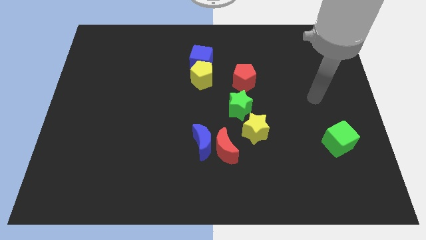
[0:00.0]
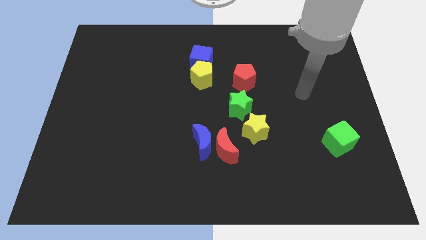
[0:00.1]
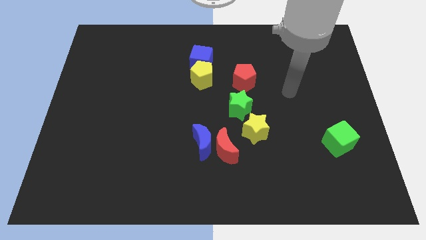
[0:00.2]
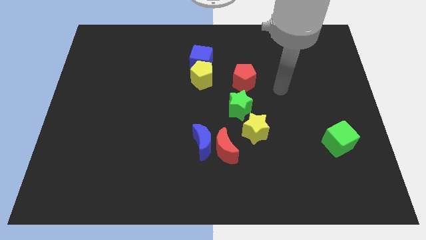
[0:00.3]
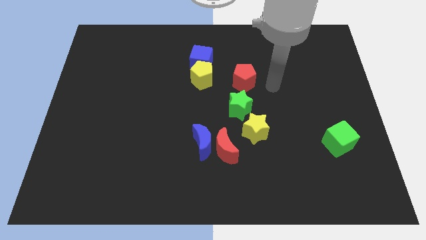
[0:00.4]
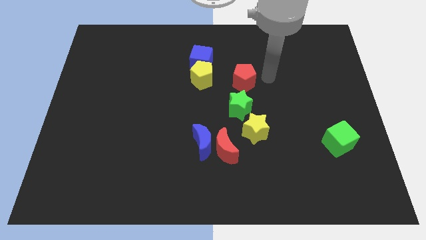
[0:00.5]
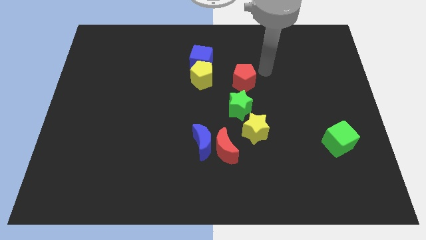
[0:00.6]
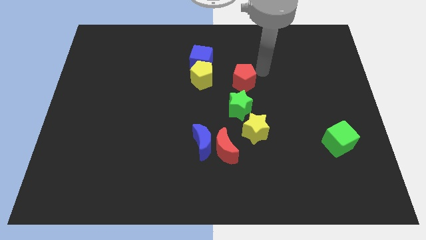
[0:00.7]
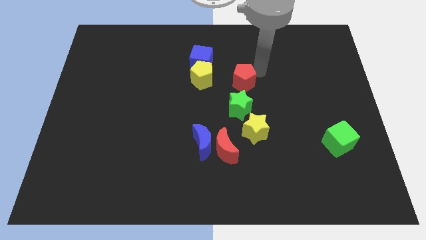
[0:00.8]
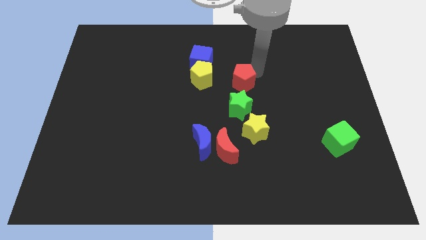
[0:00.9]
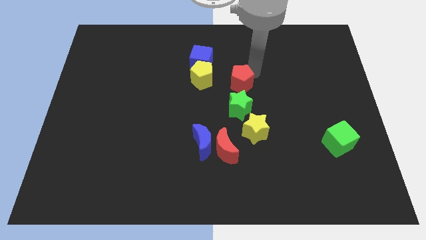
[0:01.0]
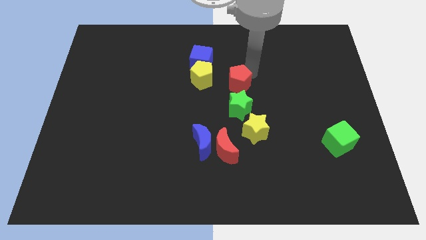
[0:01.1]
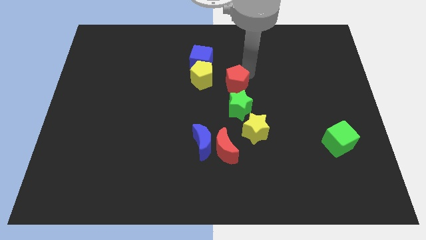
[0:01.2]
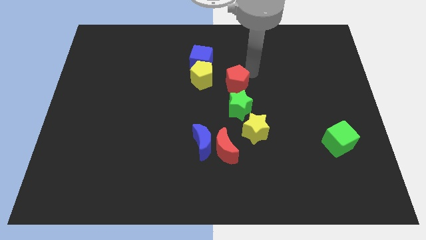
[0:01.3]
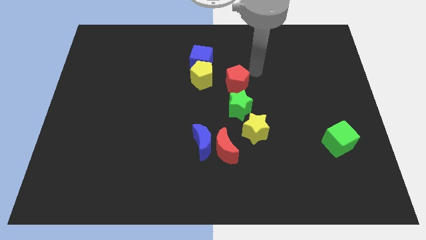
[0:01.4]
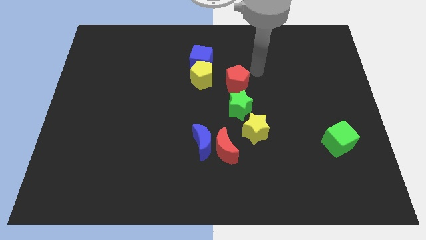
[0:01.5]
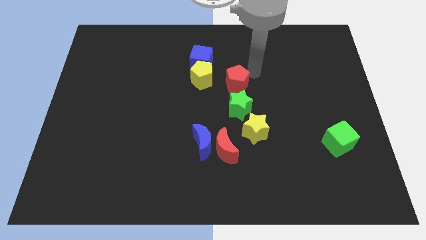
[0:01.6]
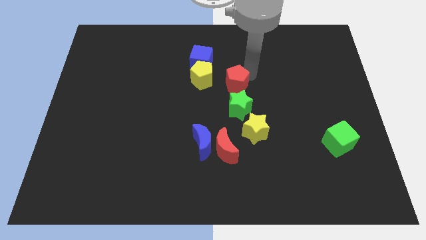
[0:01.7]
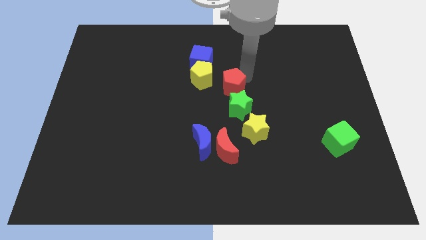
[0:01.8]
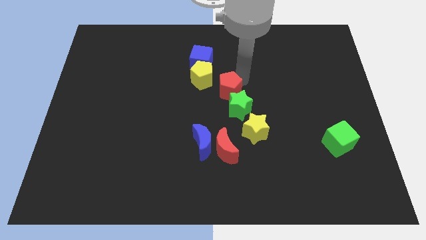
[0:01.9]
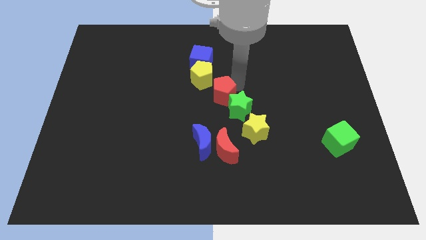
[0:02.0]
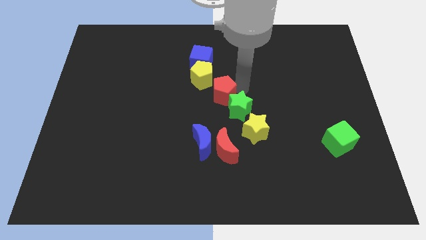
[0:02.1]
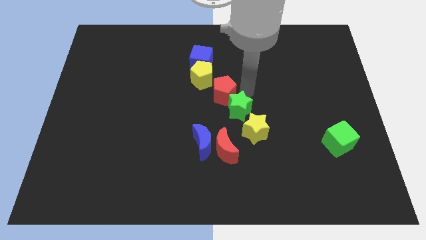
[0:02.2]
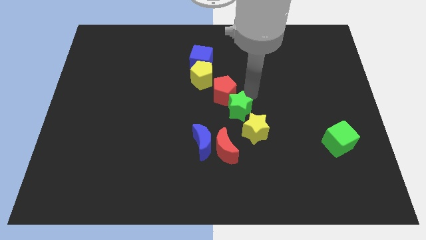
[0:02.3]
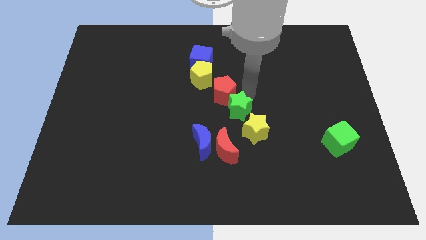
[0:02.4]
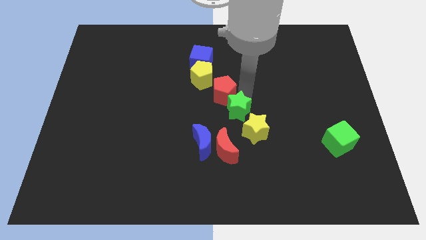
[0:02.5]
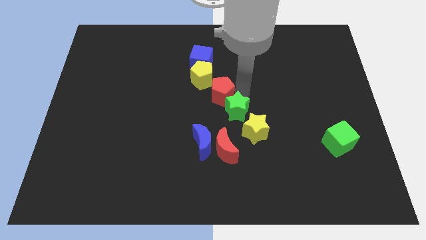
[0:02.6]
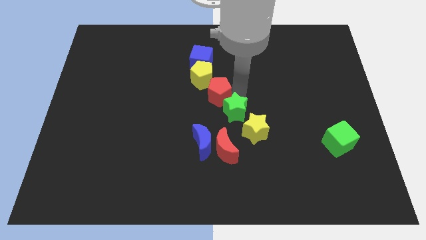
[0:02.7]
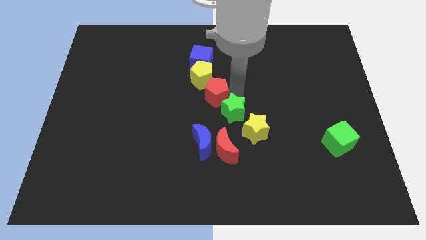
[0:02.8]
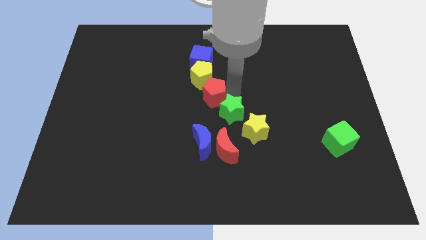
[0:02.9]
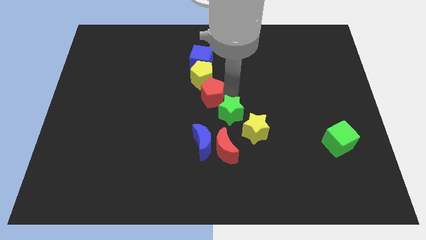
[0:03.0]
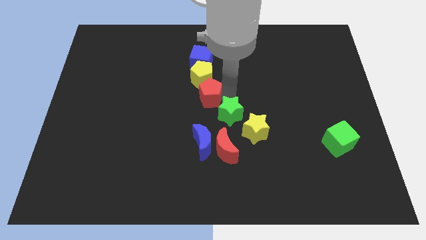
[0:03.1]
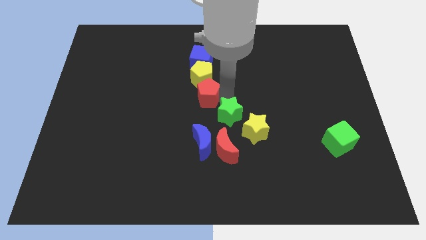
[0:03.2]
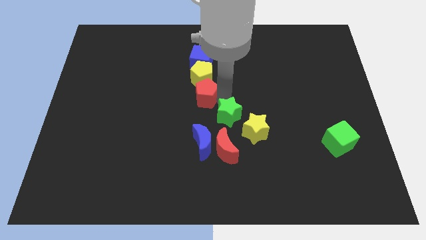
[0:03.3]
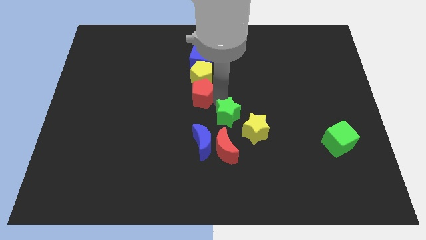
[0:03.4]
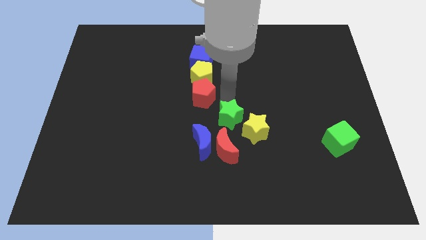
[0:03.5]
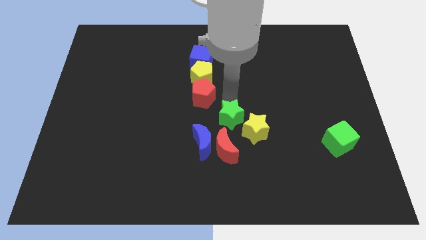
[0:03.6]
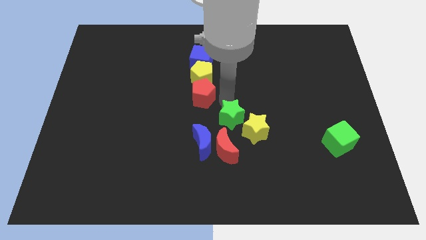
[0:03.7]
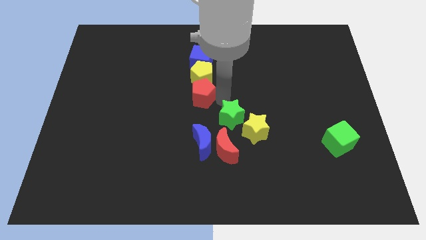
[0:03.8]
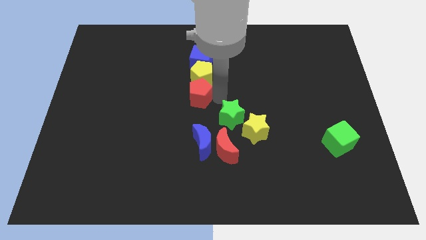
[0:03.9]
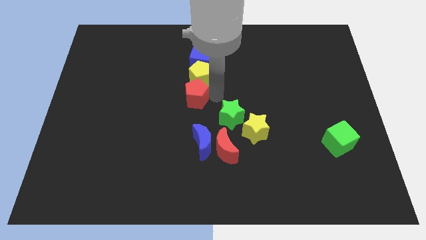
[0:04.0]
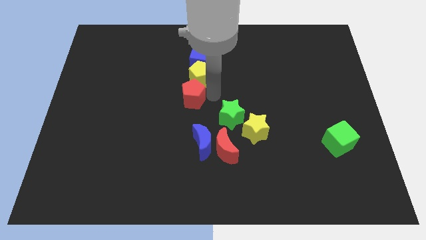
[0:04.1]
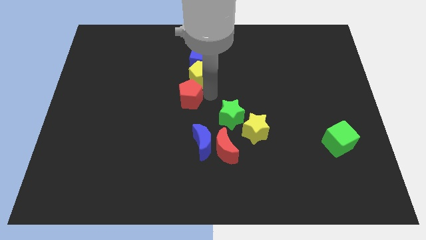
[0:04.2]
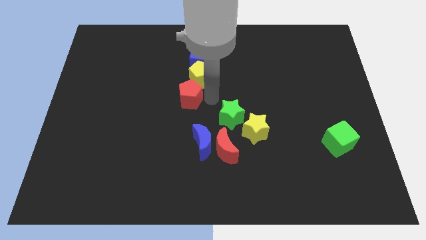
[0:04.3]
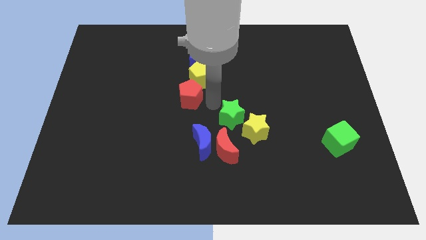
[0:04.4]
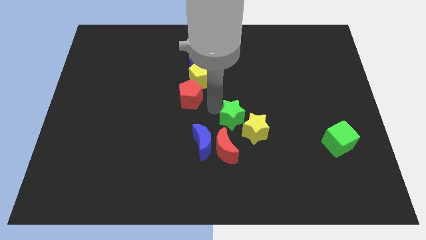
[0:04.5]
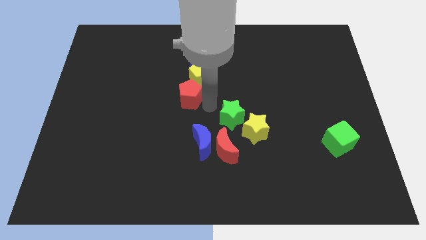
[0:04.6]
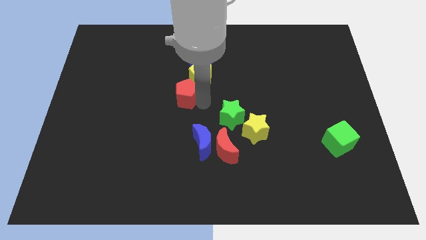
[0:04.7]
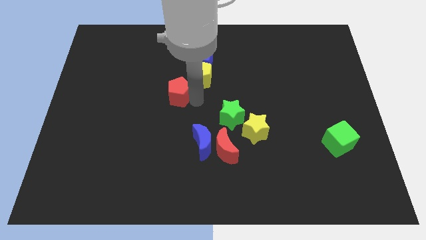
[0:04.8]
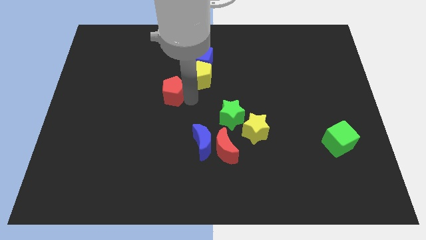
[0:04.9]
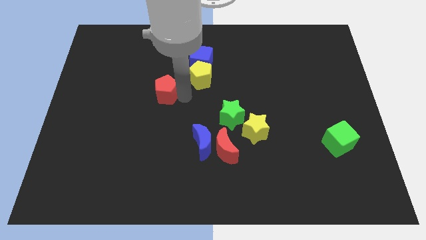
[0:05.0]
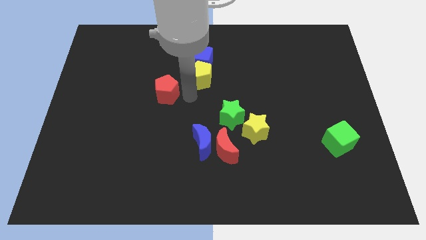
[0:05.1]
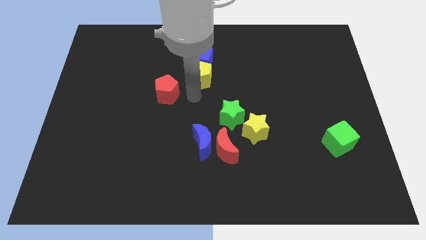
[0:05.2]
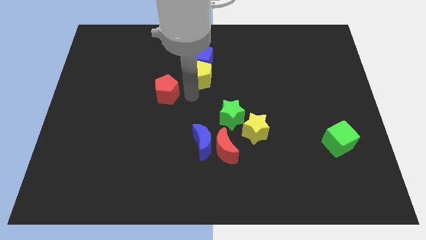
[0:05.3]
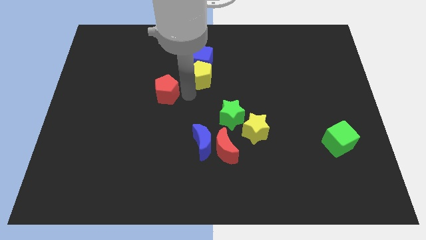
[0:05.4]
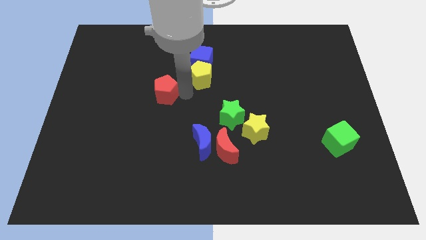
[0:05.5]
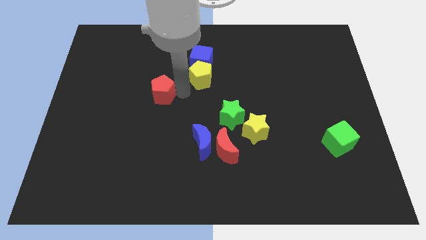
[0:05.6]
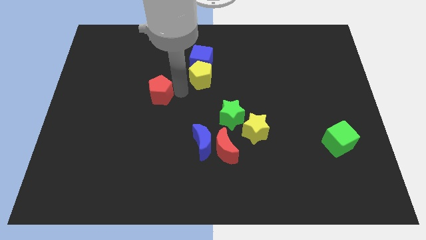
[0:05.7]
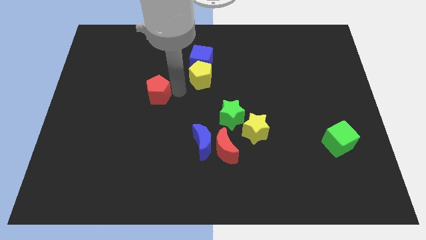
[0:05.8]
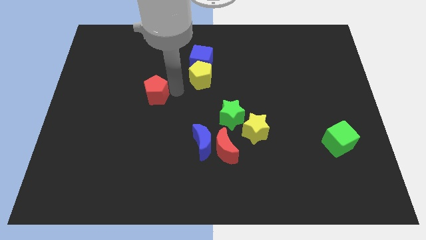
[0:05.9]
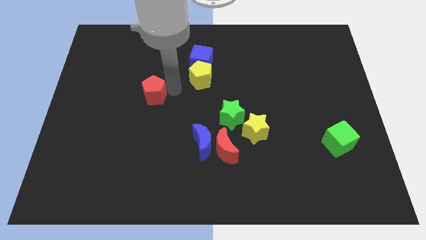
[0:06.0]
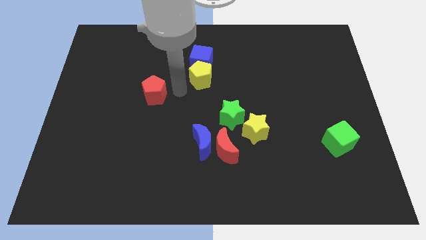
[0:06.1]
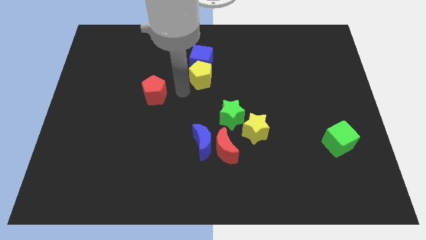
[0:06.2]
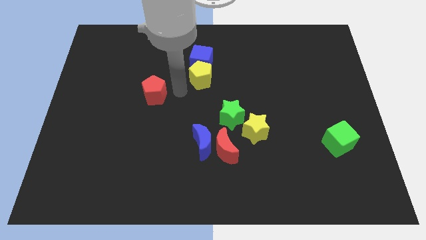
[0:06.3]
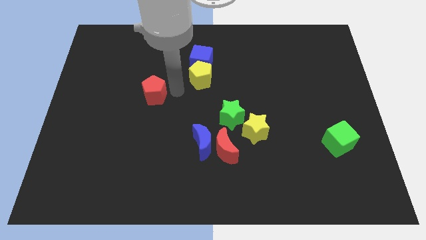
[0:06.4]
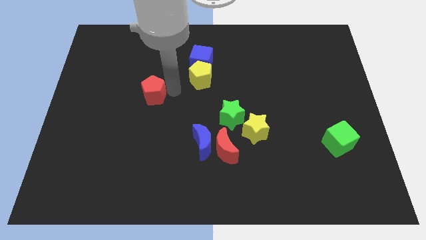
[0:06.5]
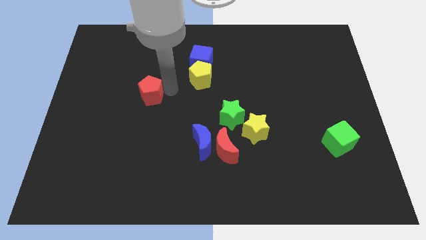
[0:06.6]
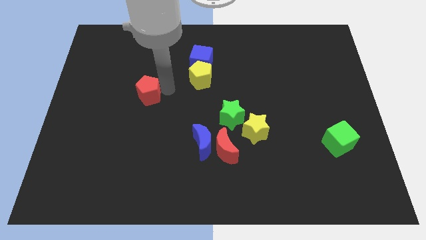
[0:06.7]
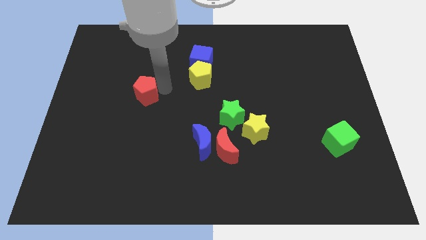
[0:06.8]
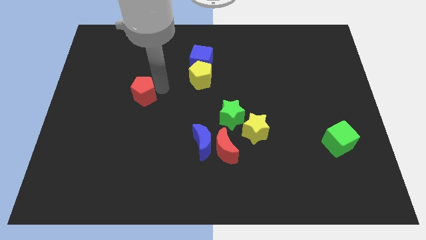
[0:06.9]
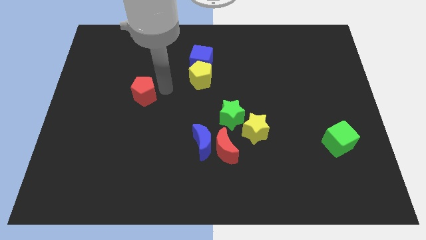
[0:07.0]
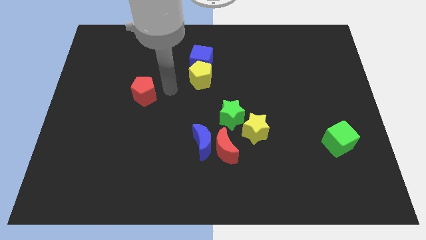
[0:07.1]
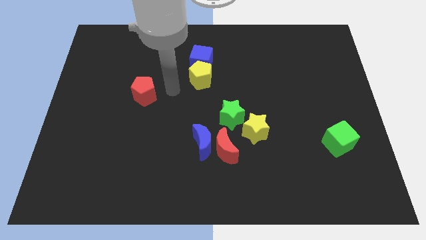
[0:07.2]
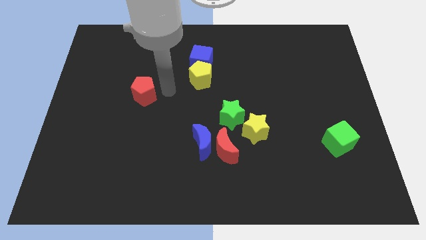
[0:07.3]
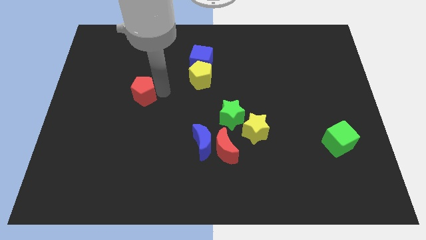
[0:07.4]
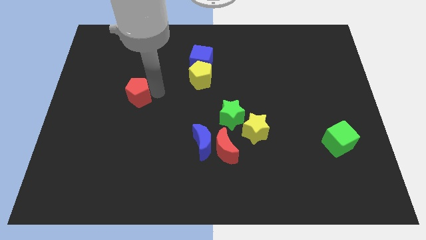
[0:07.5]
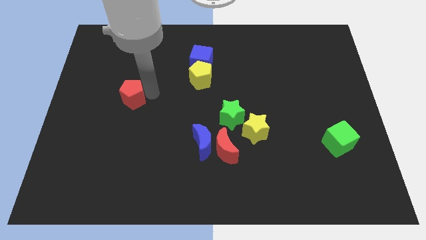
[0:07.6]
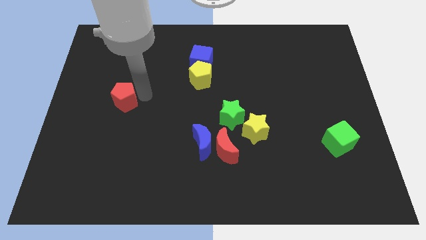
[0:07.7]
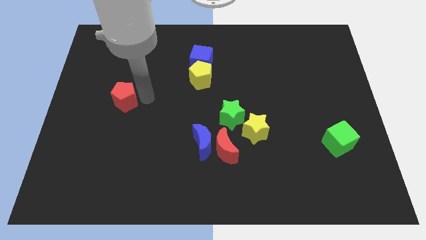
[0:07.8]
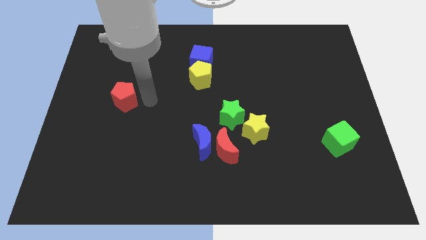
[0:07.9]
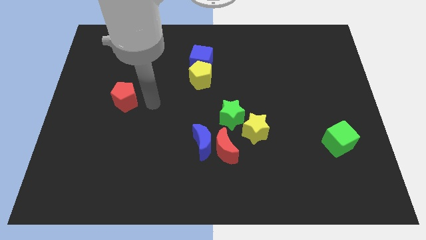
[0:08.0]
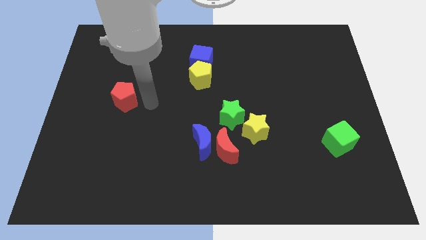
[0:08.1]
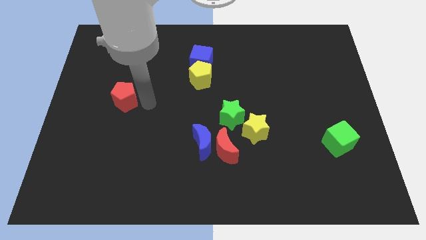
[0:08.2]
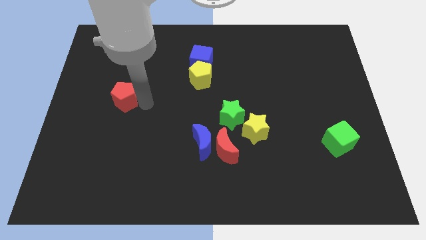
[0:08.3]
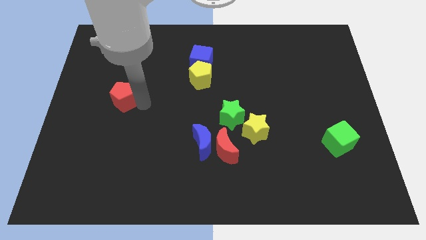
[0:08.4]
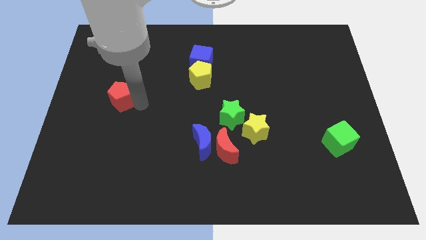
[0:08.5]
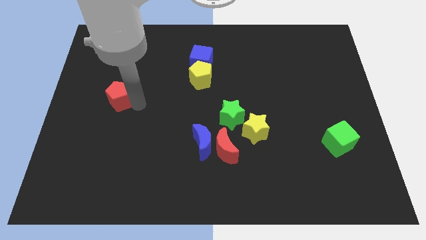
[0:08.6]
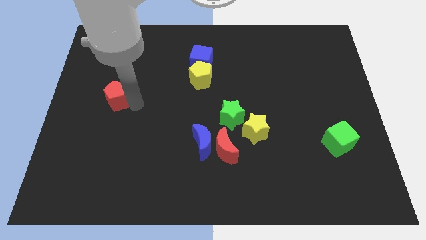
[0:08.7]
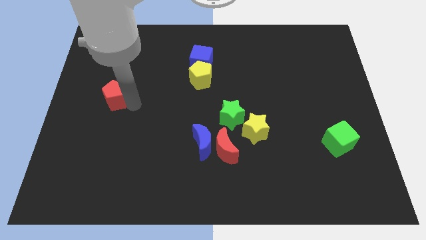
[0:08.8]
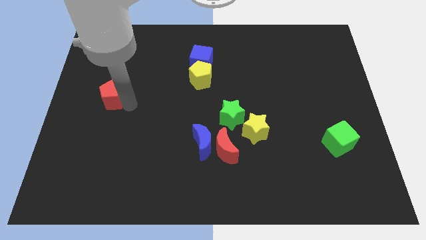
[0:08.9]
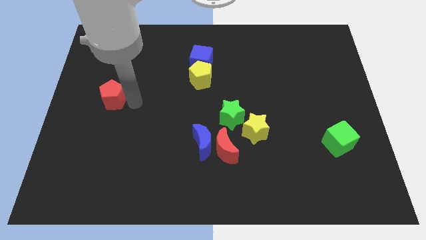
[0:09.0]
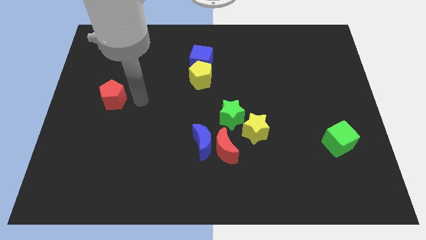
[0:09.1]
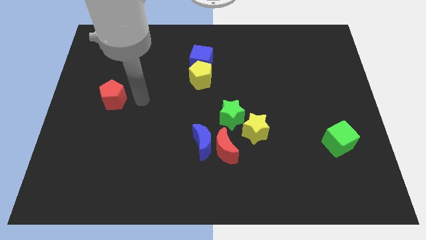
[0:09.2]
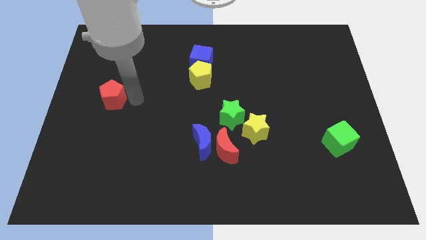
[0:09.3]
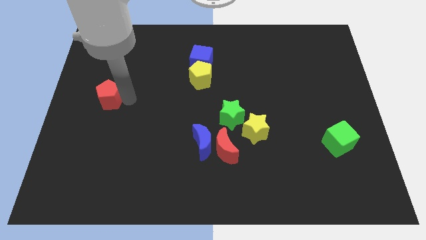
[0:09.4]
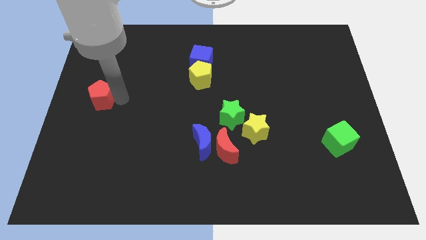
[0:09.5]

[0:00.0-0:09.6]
slide the red pentagon to the left side
